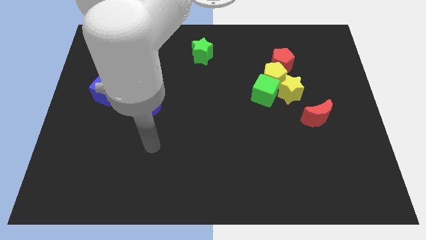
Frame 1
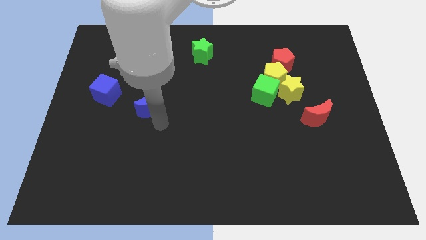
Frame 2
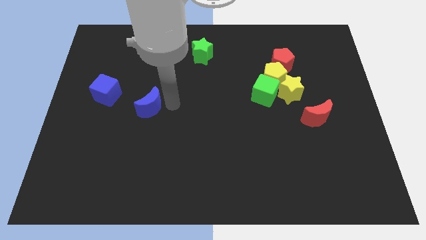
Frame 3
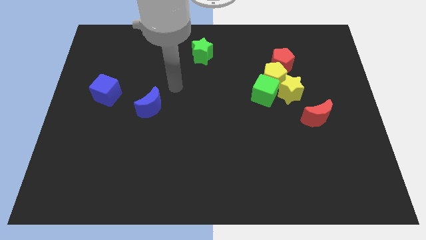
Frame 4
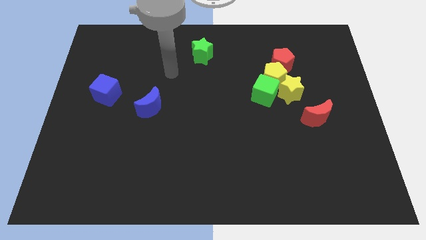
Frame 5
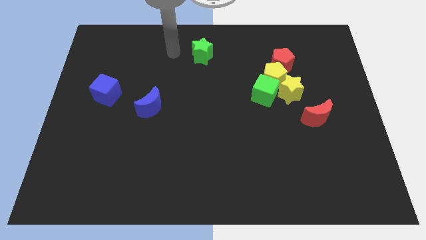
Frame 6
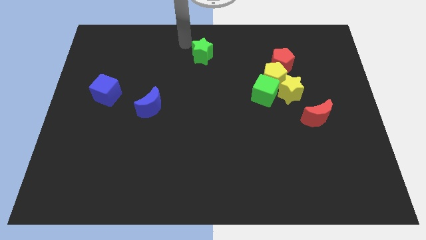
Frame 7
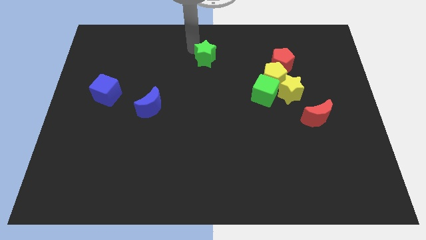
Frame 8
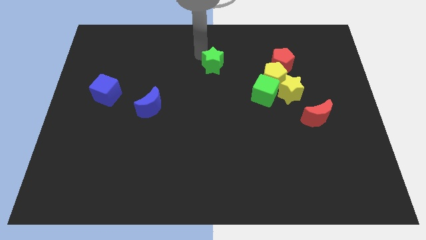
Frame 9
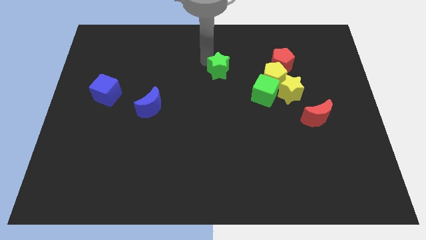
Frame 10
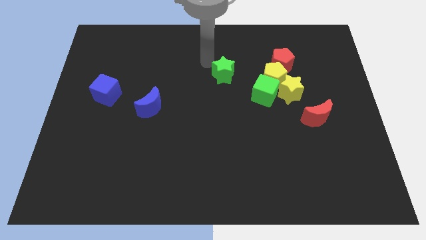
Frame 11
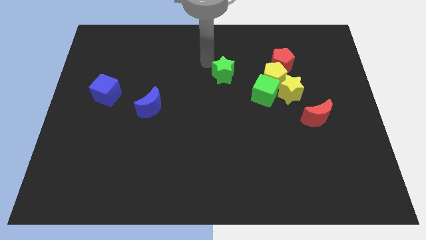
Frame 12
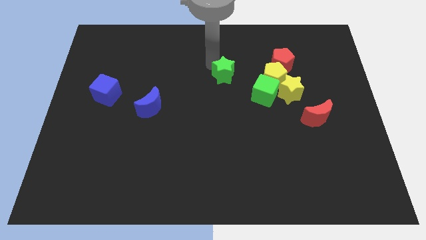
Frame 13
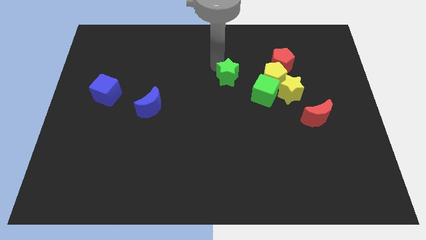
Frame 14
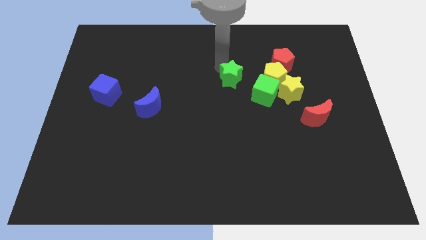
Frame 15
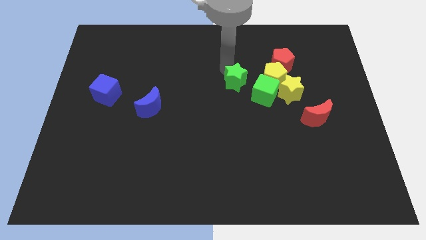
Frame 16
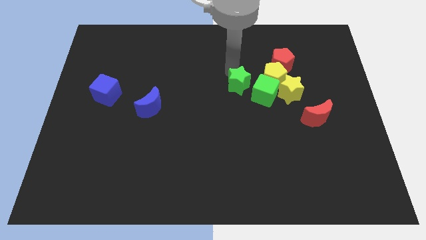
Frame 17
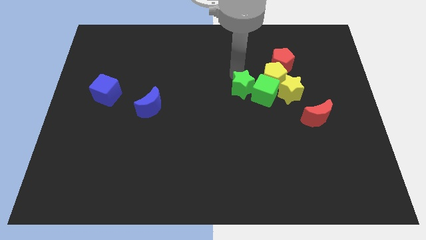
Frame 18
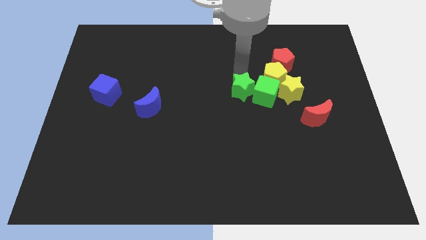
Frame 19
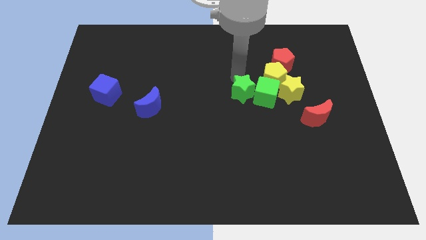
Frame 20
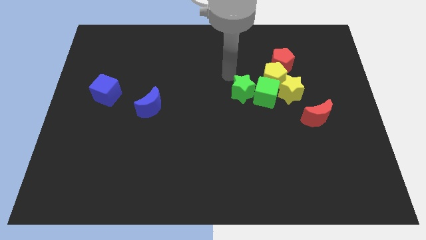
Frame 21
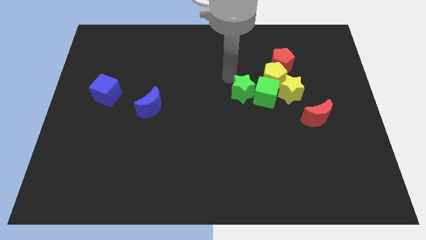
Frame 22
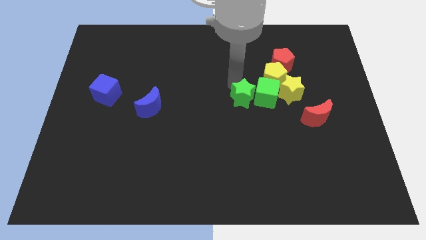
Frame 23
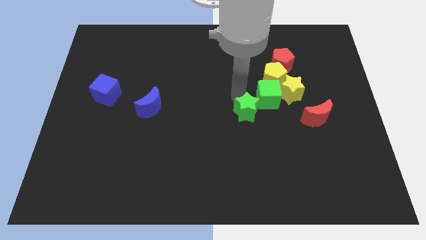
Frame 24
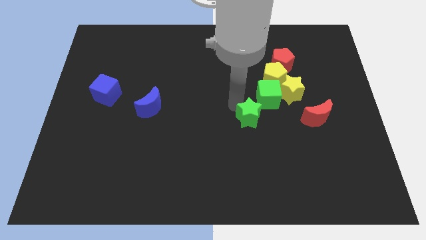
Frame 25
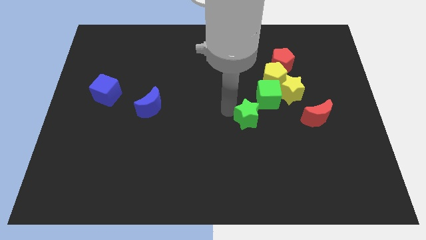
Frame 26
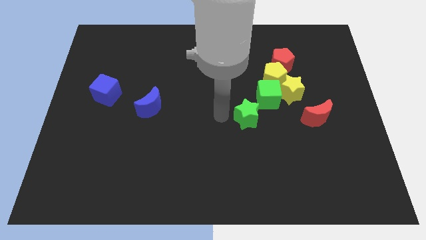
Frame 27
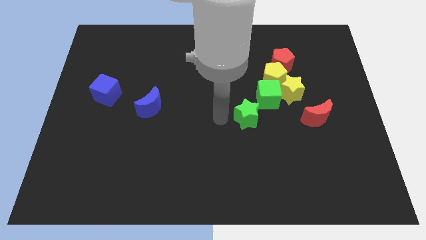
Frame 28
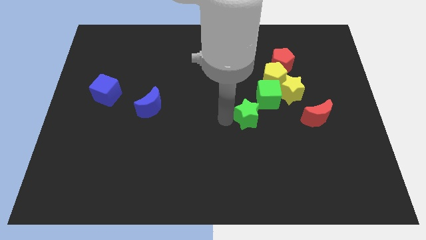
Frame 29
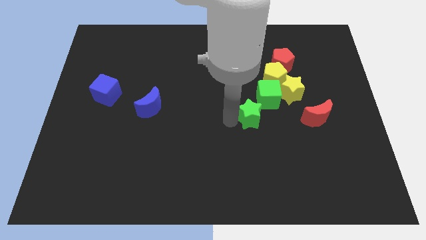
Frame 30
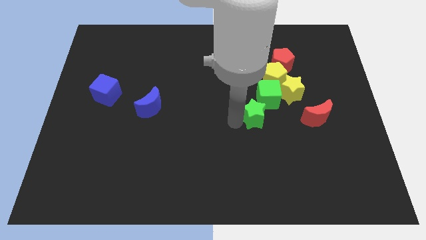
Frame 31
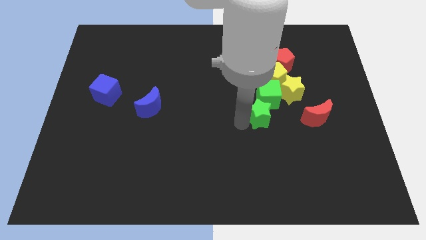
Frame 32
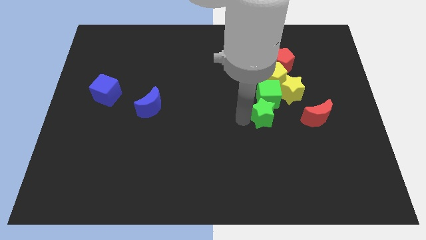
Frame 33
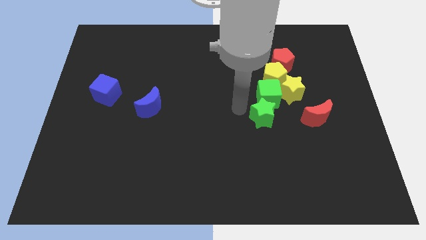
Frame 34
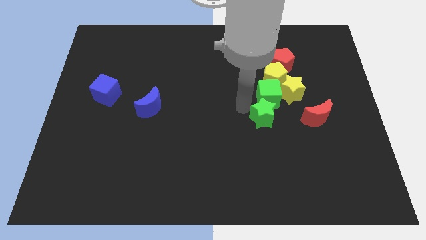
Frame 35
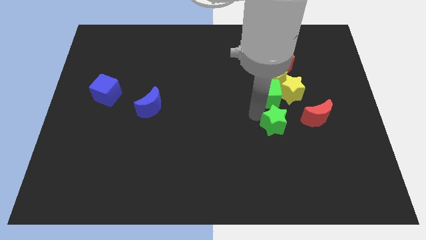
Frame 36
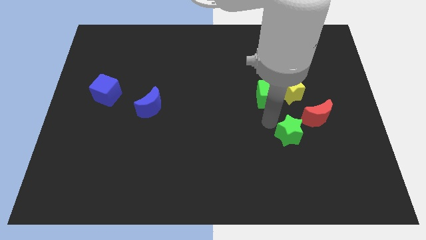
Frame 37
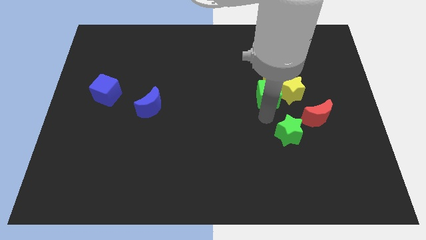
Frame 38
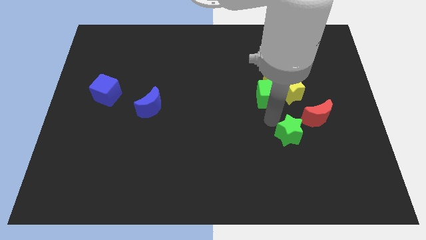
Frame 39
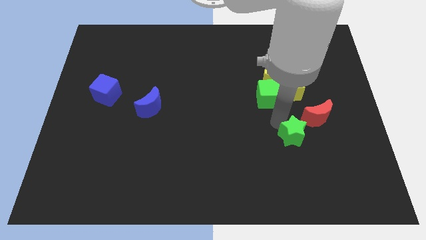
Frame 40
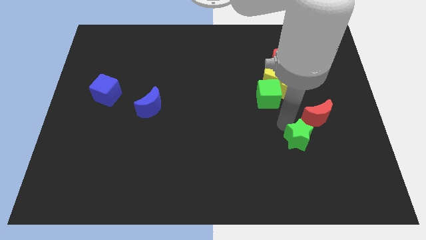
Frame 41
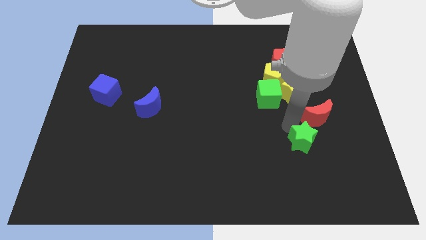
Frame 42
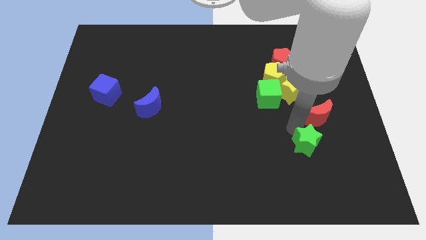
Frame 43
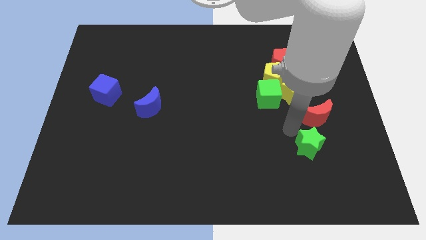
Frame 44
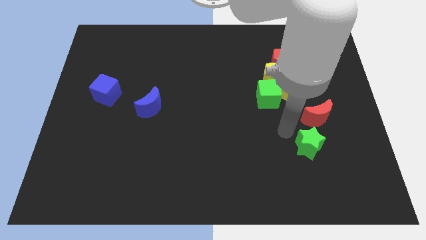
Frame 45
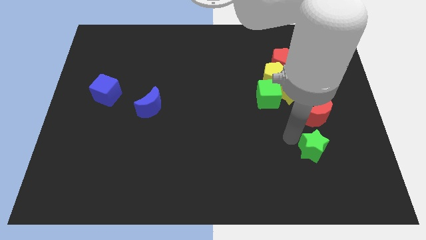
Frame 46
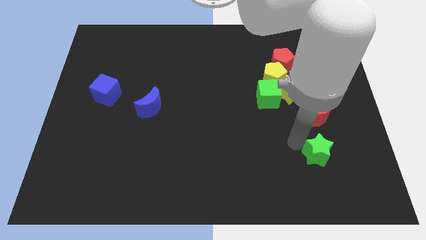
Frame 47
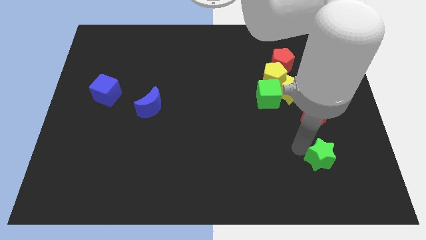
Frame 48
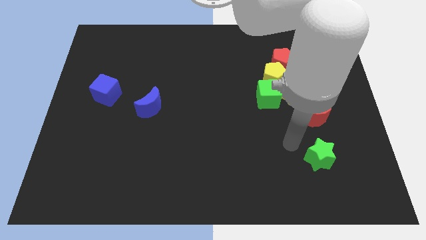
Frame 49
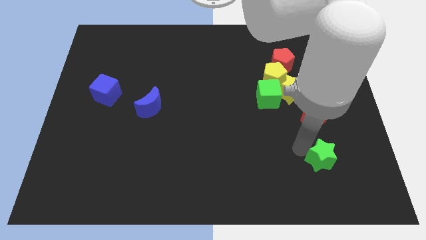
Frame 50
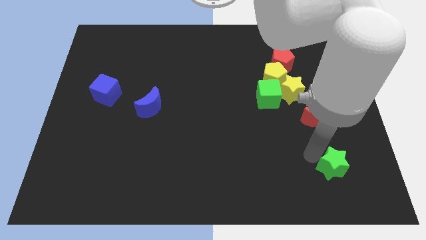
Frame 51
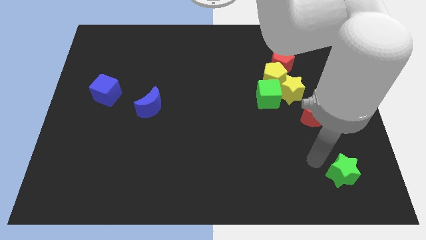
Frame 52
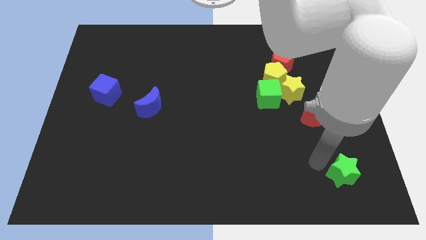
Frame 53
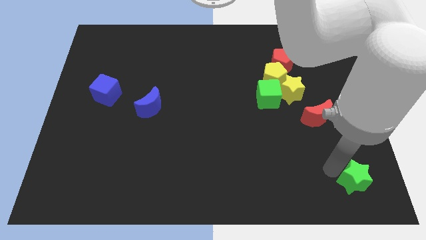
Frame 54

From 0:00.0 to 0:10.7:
push the green star to the bottom right of the board
